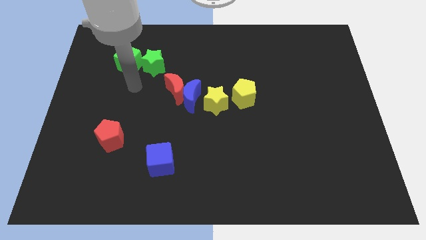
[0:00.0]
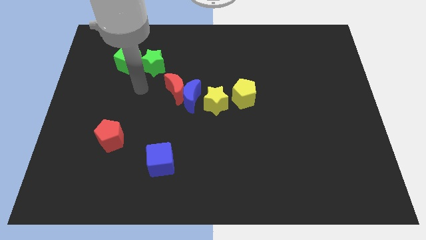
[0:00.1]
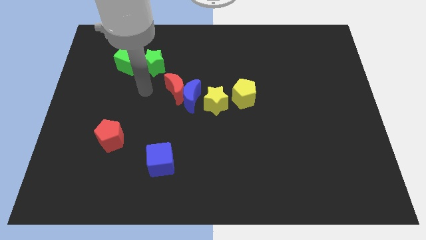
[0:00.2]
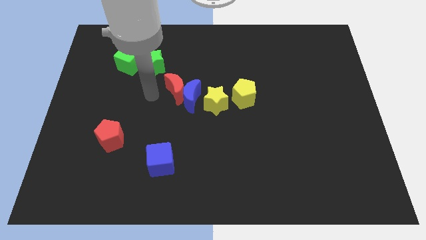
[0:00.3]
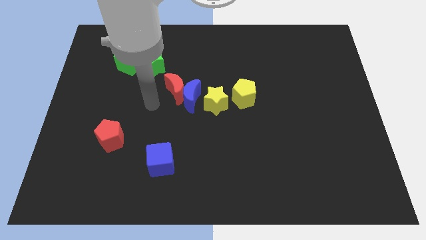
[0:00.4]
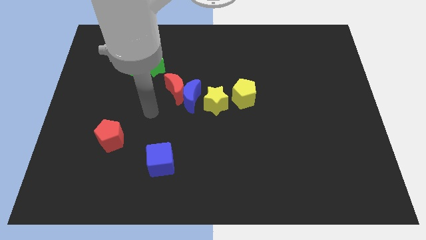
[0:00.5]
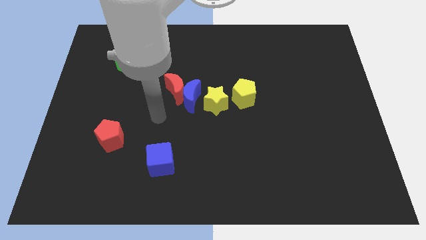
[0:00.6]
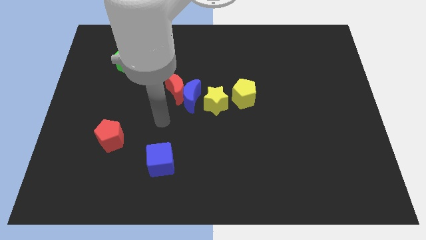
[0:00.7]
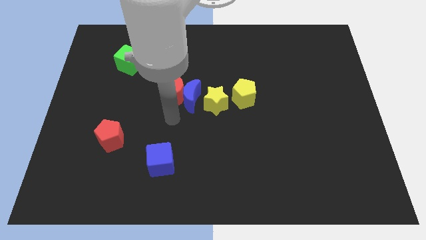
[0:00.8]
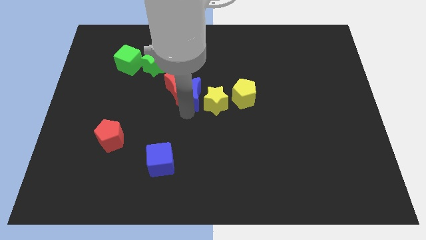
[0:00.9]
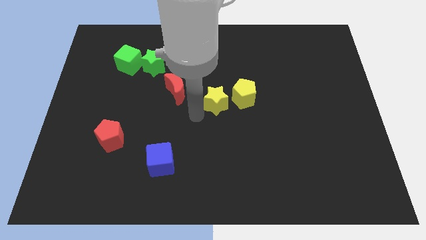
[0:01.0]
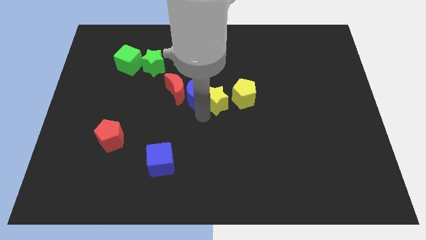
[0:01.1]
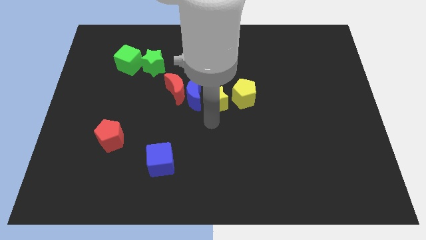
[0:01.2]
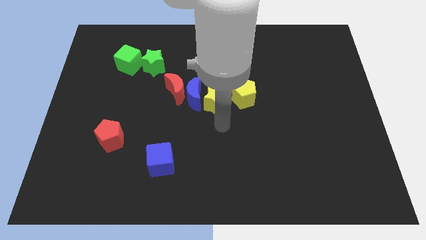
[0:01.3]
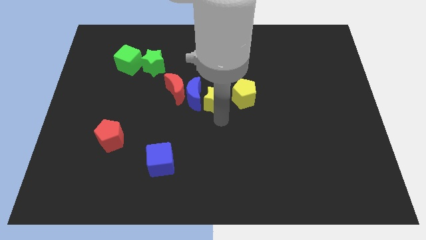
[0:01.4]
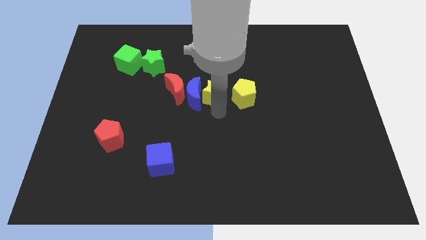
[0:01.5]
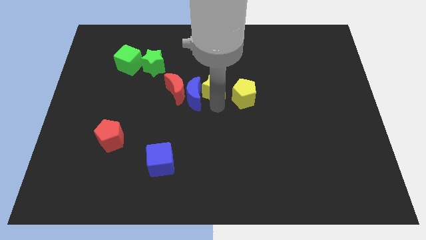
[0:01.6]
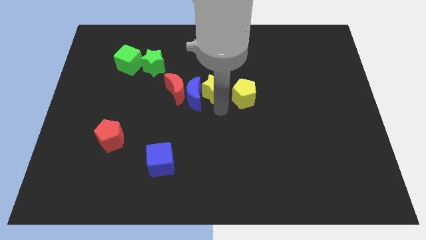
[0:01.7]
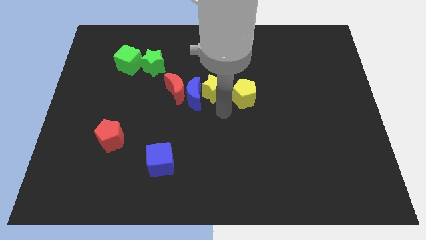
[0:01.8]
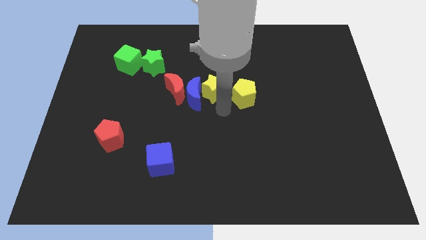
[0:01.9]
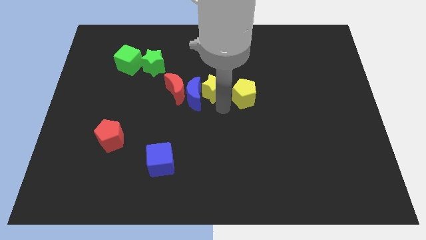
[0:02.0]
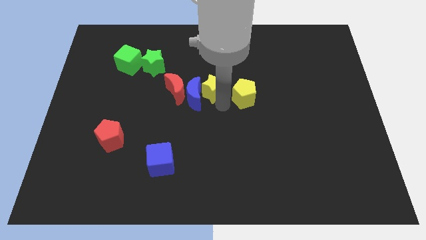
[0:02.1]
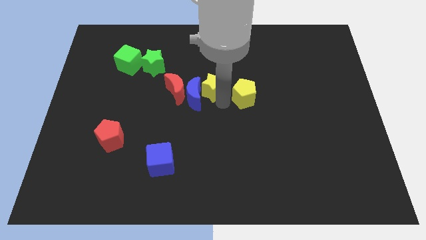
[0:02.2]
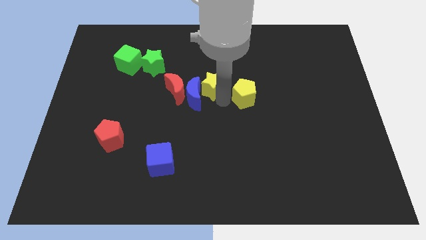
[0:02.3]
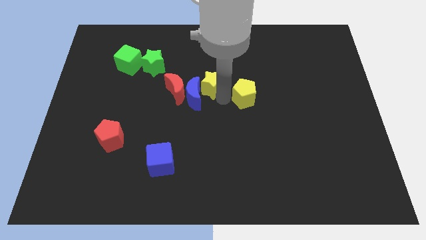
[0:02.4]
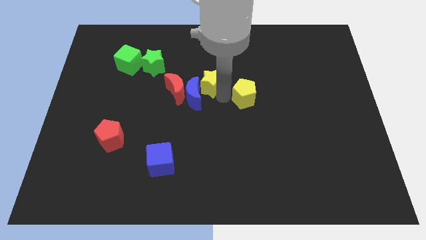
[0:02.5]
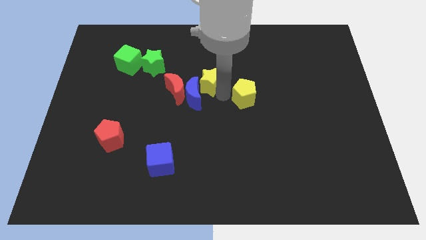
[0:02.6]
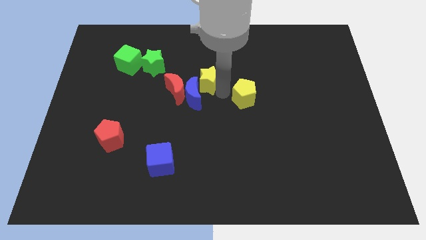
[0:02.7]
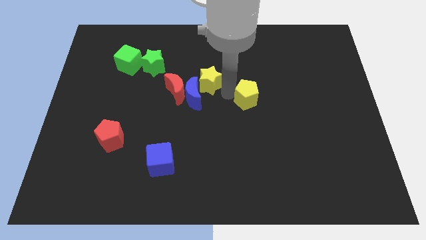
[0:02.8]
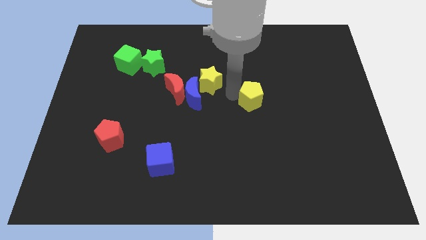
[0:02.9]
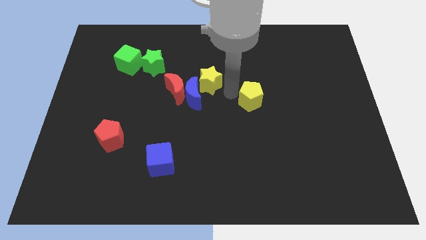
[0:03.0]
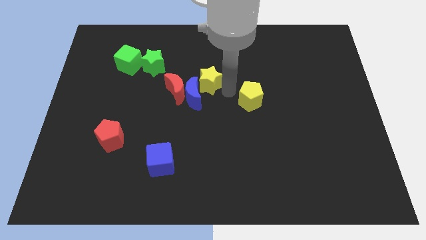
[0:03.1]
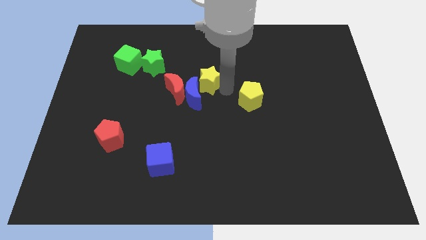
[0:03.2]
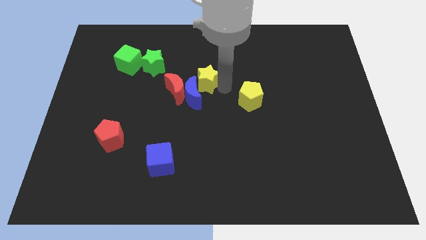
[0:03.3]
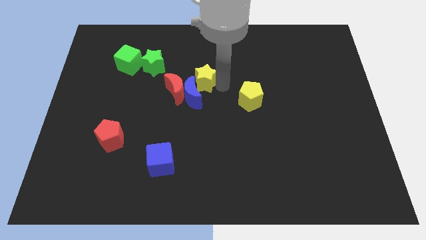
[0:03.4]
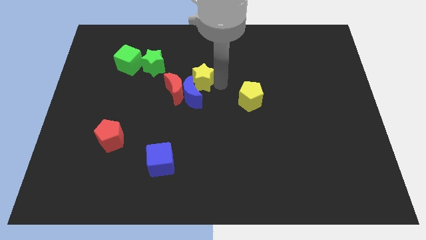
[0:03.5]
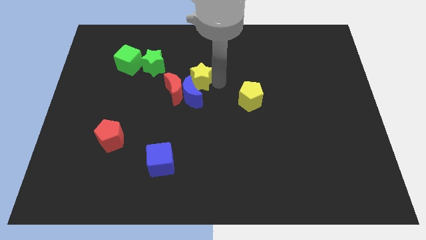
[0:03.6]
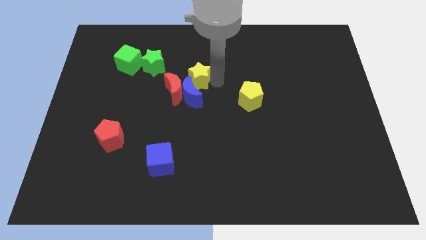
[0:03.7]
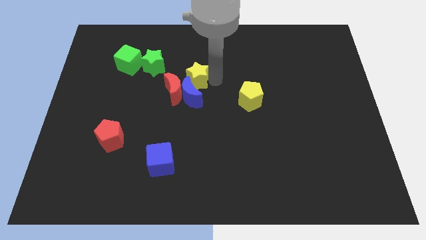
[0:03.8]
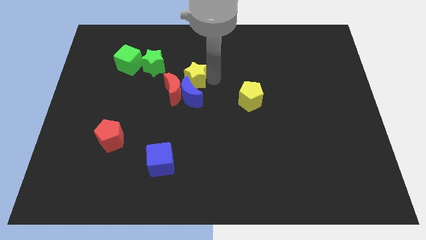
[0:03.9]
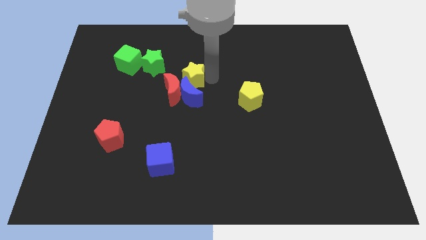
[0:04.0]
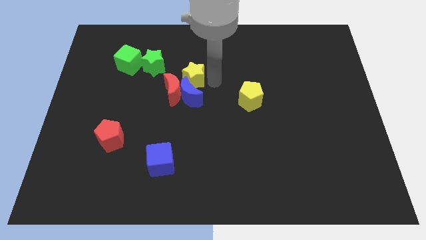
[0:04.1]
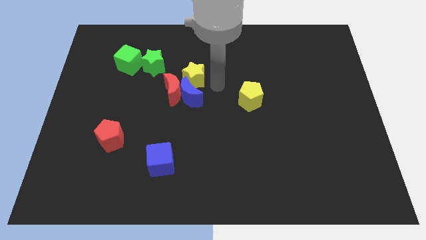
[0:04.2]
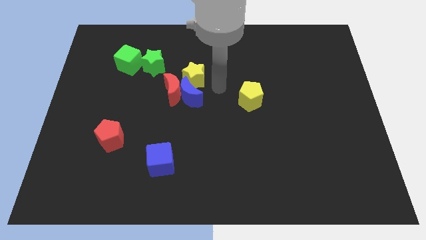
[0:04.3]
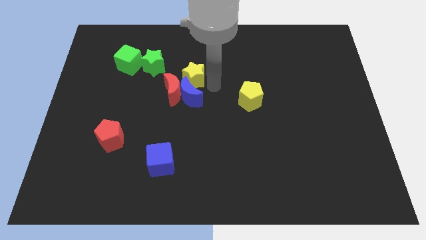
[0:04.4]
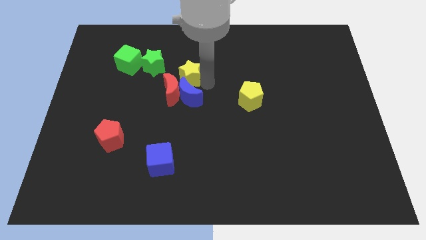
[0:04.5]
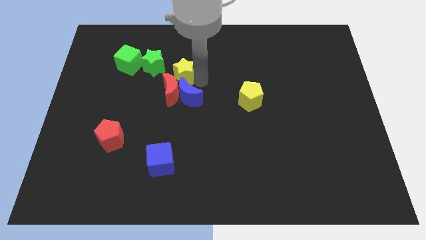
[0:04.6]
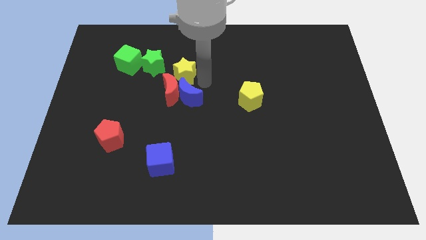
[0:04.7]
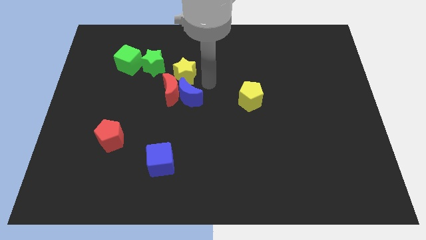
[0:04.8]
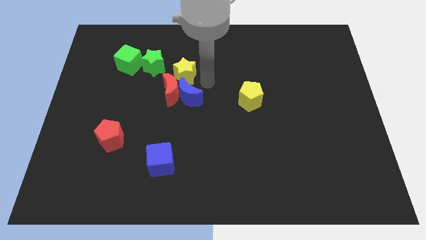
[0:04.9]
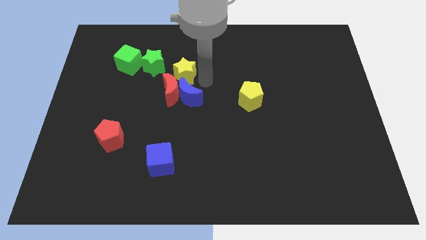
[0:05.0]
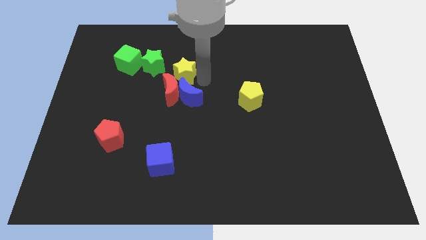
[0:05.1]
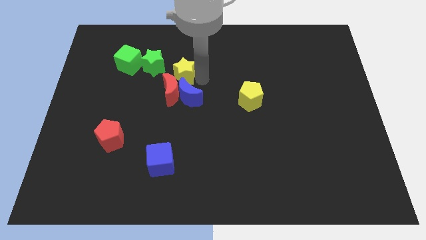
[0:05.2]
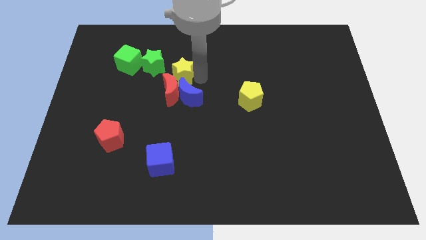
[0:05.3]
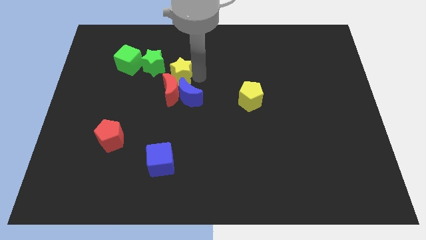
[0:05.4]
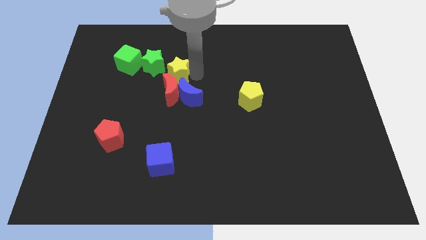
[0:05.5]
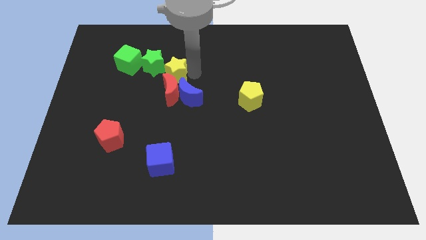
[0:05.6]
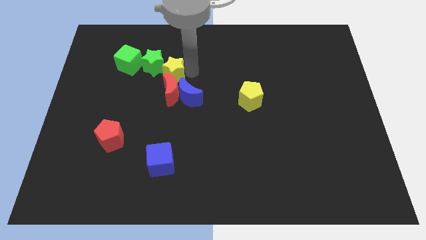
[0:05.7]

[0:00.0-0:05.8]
move the yellow star next to the green star

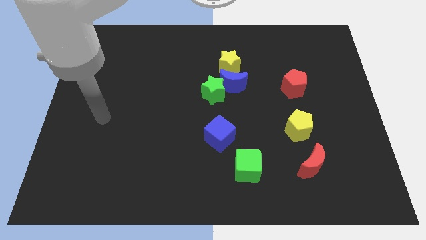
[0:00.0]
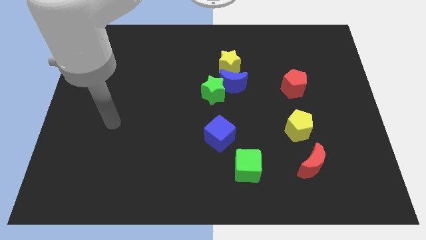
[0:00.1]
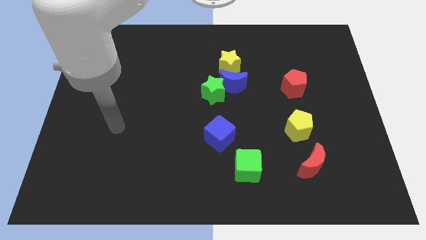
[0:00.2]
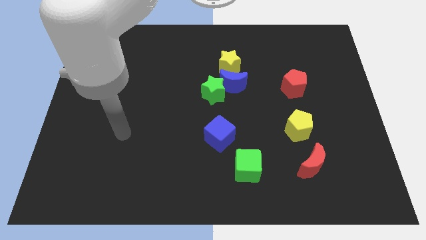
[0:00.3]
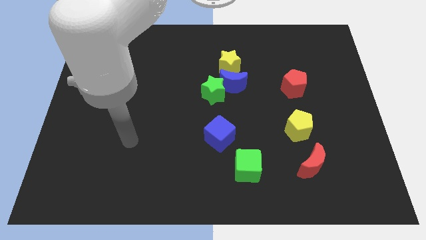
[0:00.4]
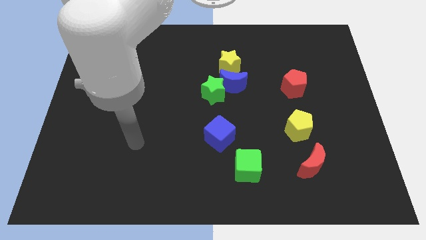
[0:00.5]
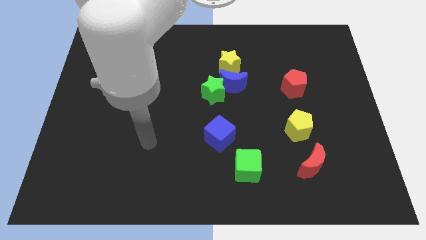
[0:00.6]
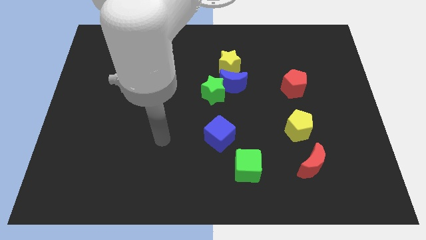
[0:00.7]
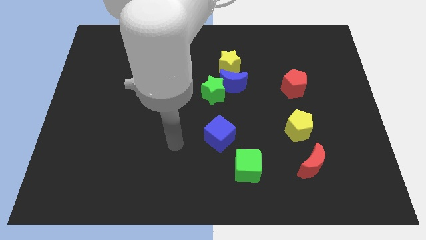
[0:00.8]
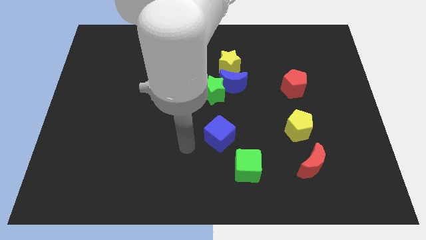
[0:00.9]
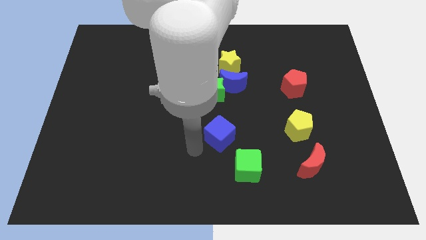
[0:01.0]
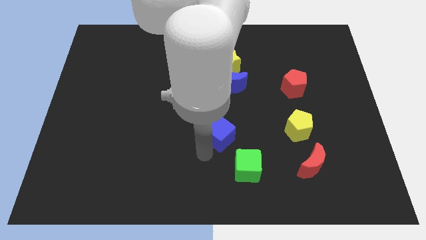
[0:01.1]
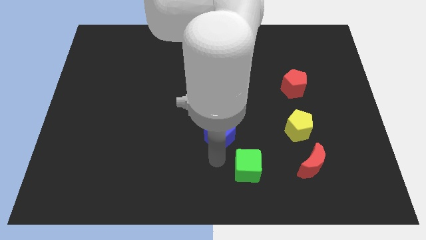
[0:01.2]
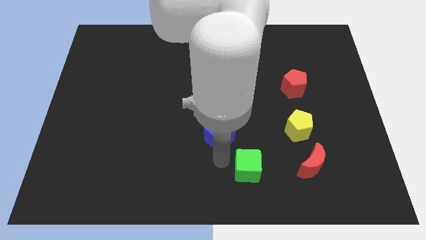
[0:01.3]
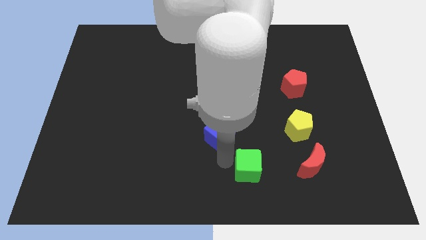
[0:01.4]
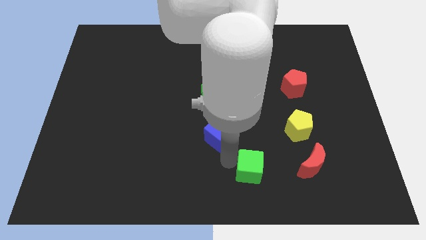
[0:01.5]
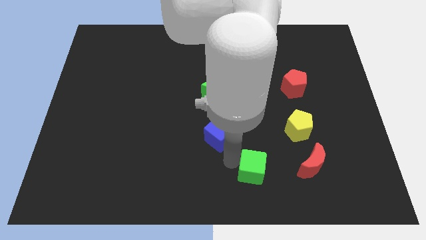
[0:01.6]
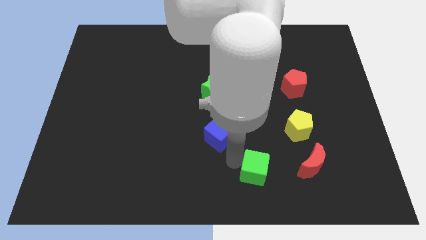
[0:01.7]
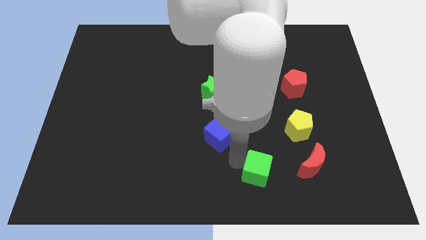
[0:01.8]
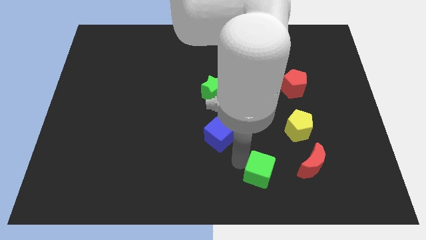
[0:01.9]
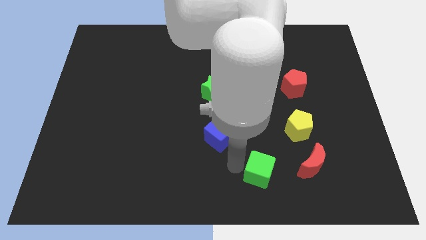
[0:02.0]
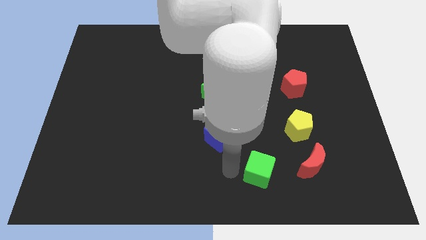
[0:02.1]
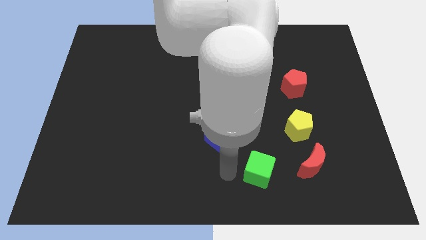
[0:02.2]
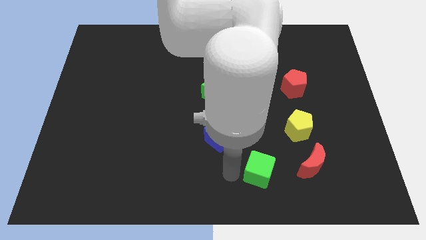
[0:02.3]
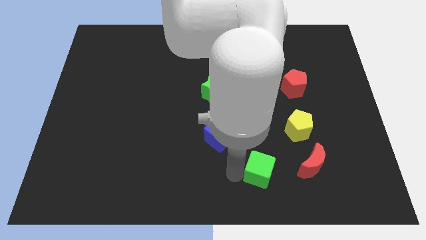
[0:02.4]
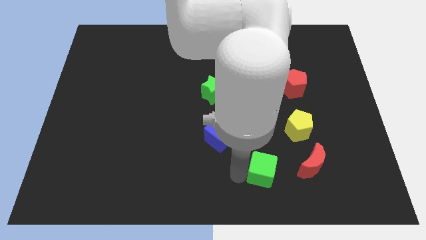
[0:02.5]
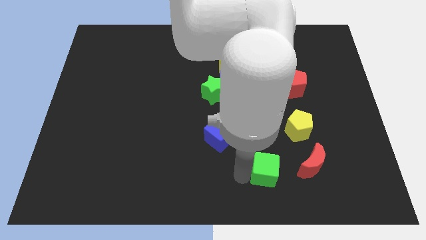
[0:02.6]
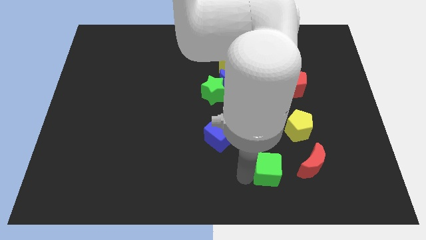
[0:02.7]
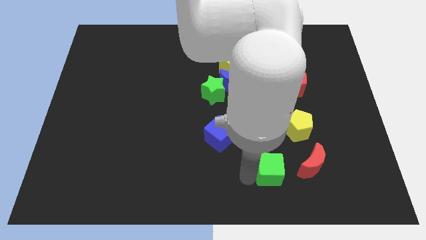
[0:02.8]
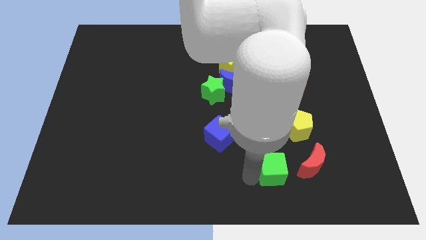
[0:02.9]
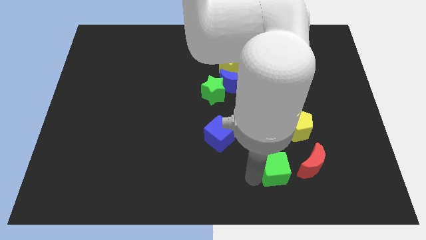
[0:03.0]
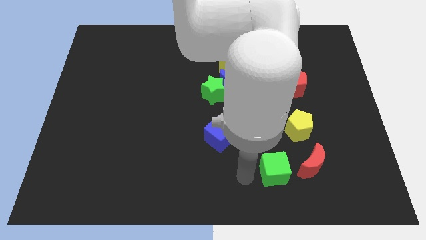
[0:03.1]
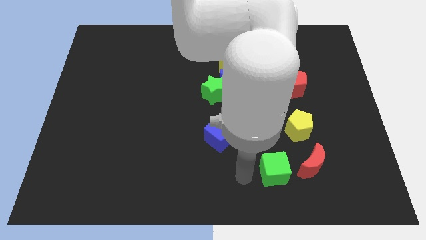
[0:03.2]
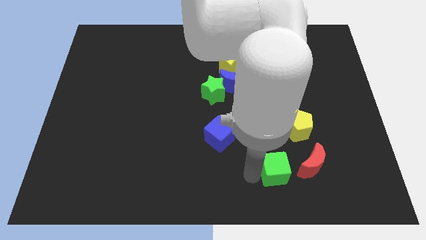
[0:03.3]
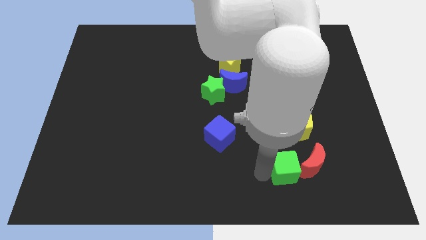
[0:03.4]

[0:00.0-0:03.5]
put the green cube close to the red moon
